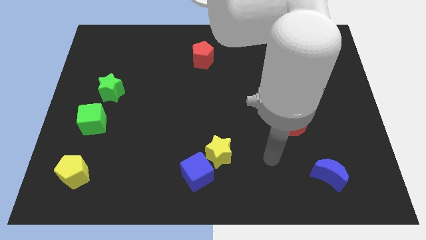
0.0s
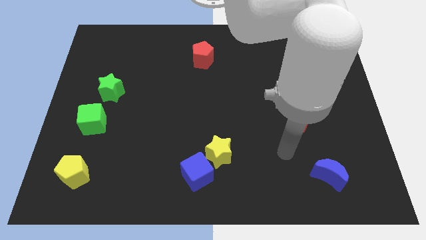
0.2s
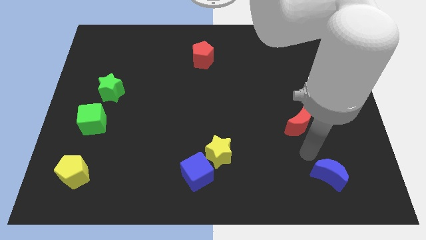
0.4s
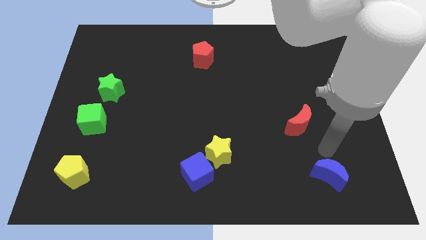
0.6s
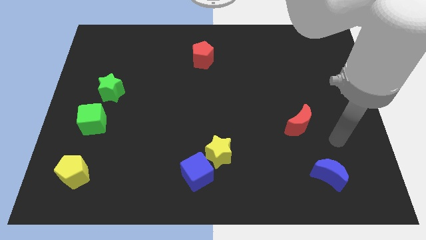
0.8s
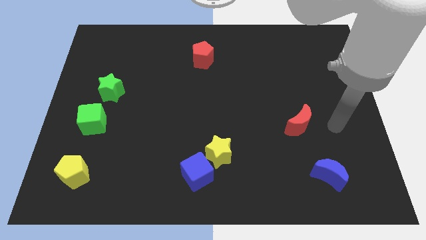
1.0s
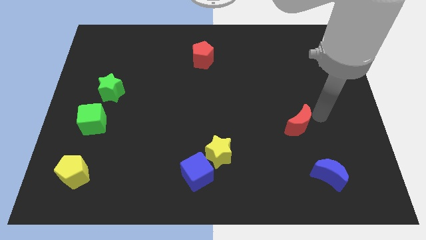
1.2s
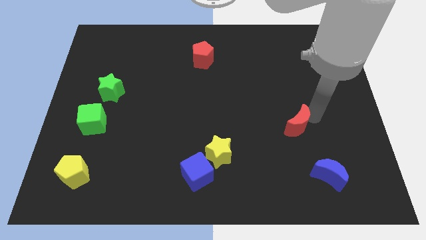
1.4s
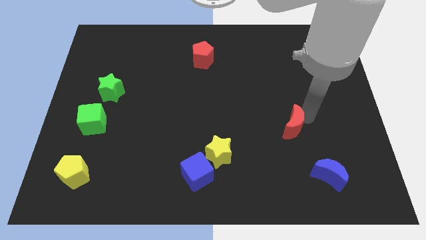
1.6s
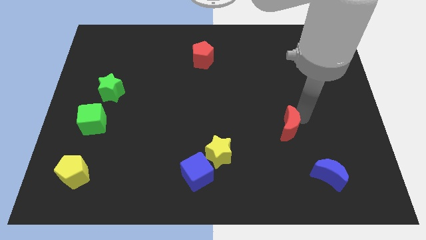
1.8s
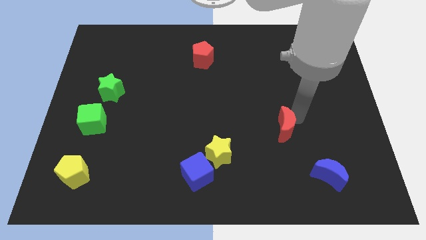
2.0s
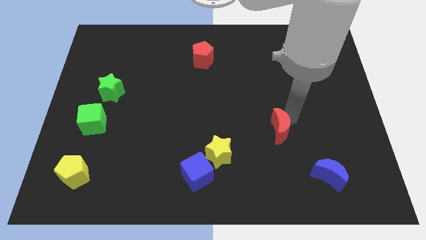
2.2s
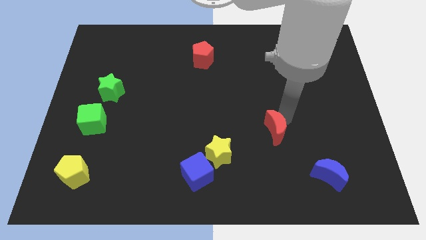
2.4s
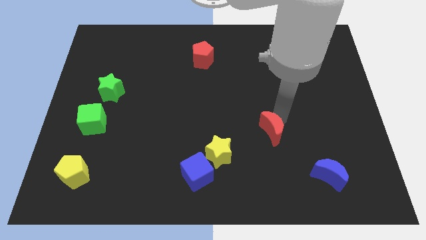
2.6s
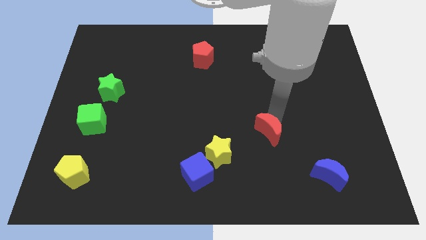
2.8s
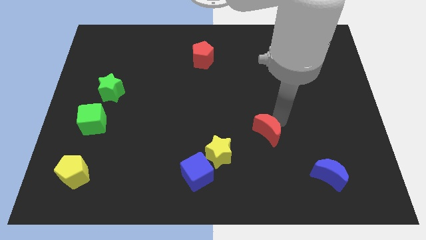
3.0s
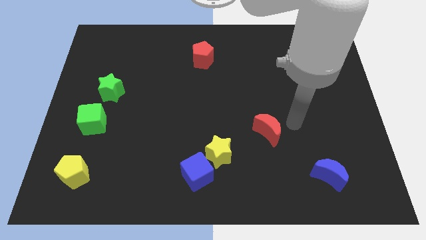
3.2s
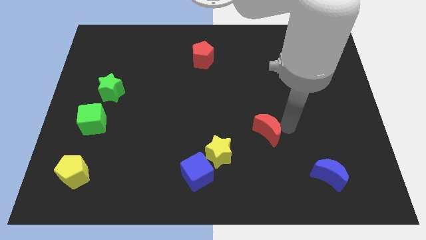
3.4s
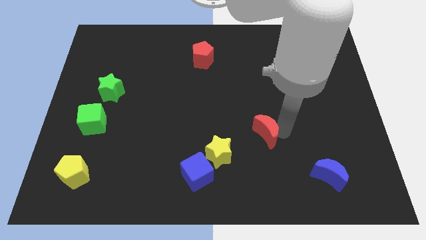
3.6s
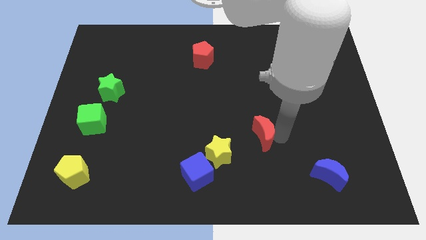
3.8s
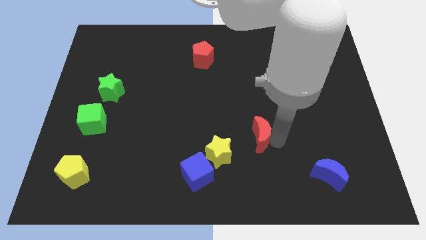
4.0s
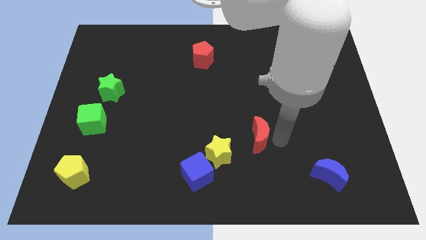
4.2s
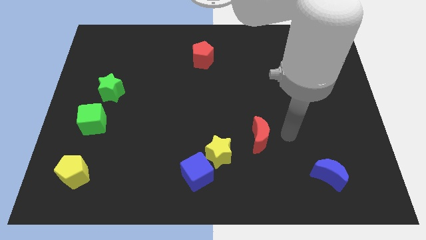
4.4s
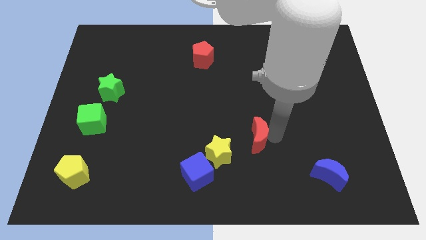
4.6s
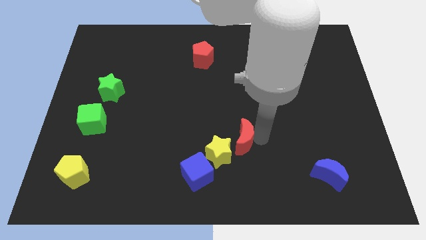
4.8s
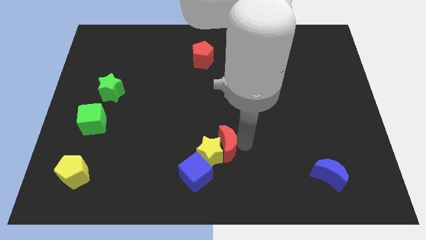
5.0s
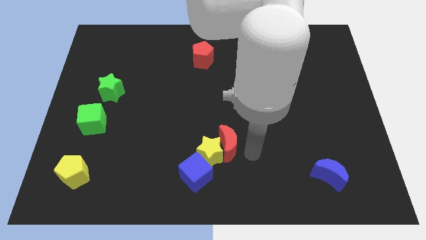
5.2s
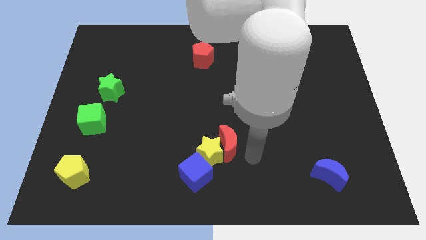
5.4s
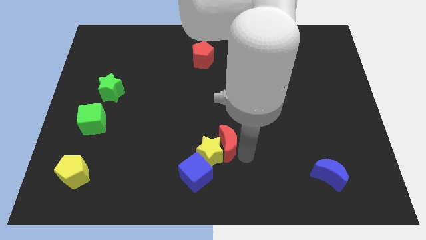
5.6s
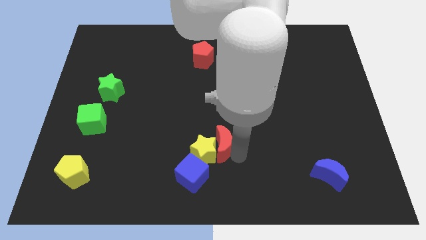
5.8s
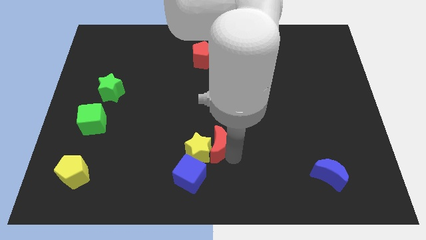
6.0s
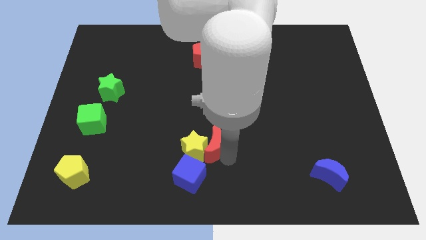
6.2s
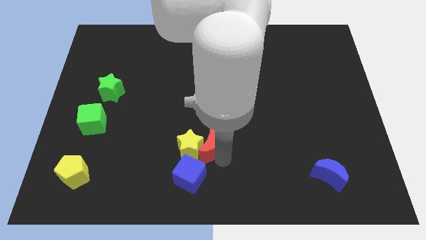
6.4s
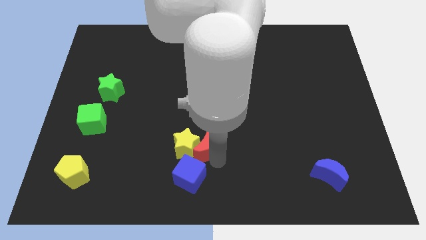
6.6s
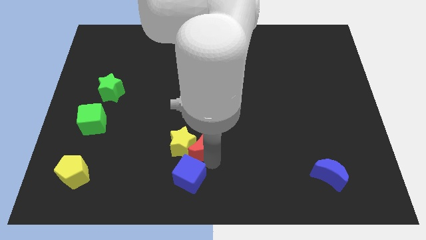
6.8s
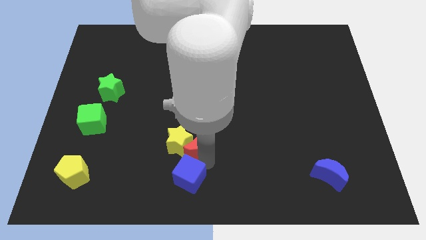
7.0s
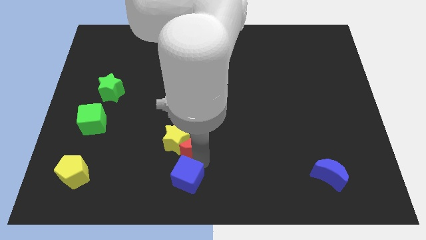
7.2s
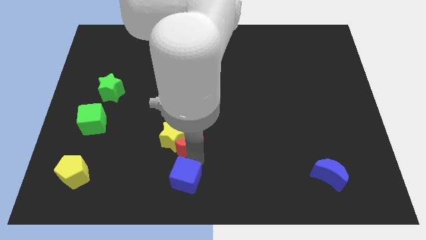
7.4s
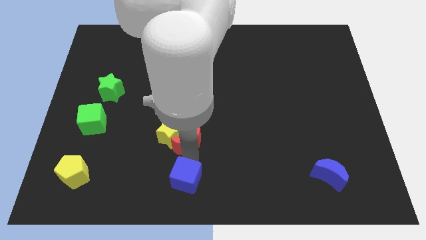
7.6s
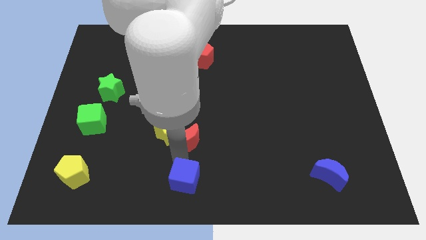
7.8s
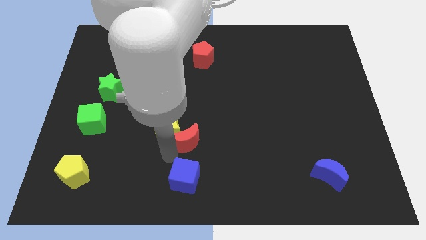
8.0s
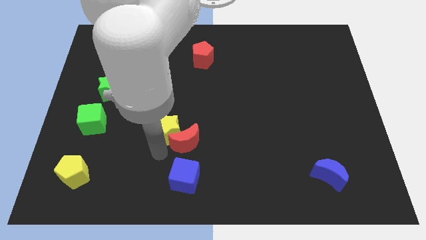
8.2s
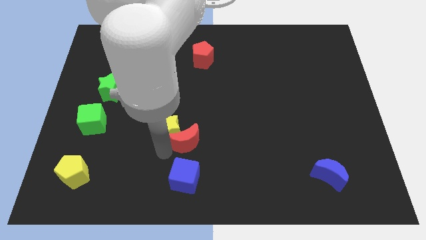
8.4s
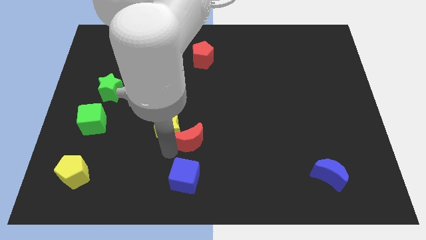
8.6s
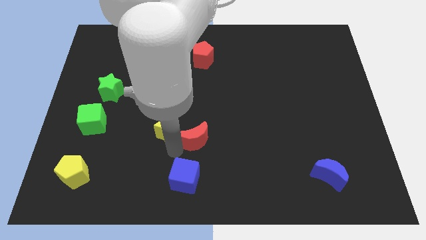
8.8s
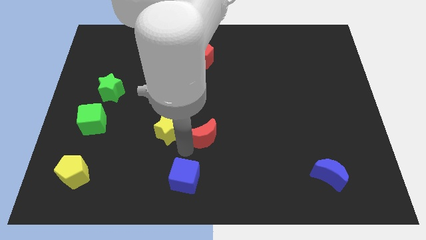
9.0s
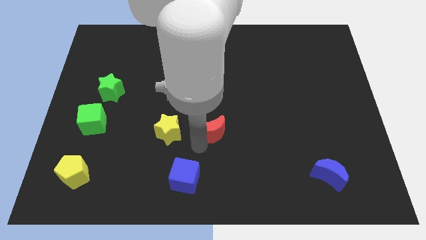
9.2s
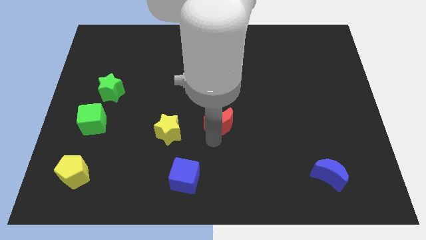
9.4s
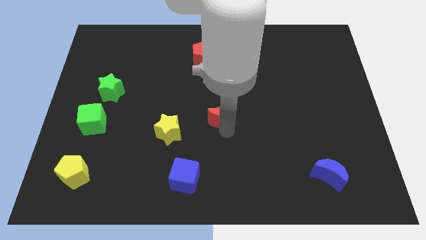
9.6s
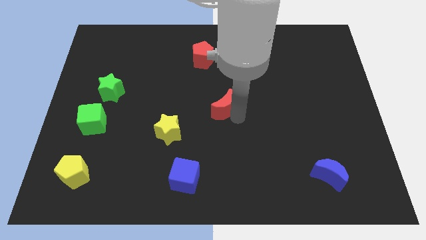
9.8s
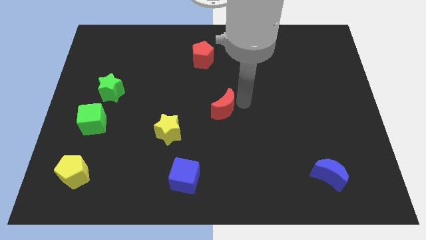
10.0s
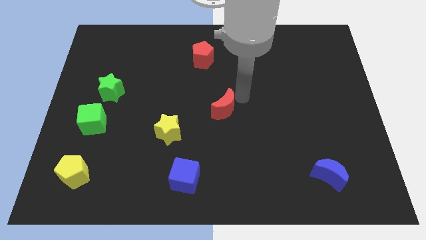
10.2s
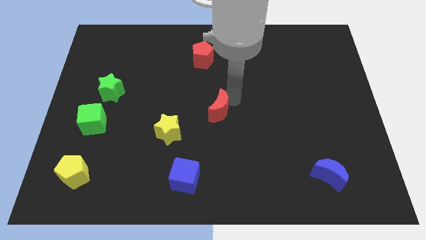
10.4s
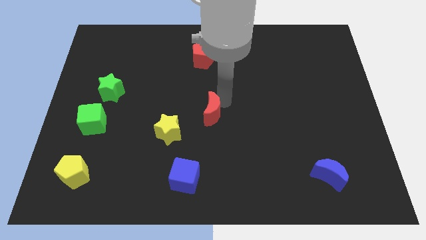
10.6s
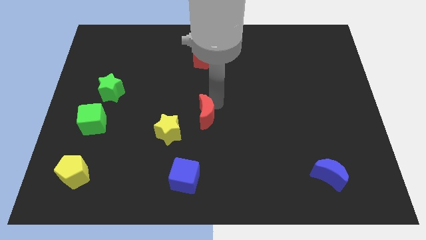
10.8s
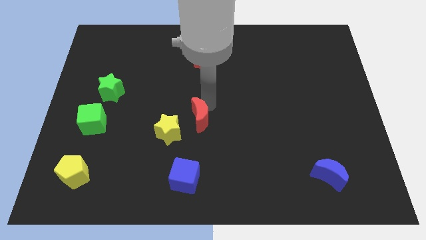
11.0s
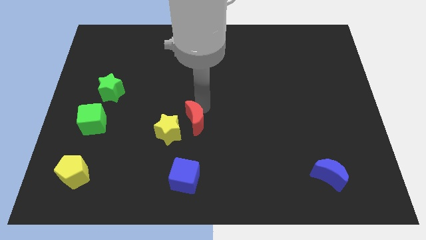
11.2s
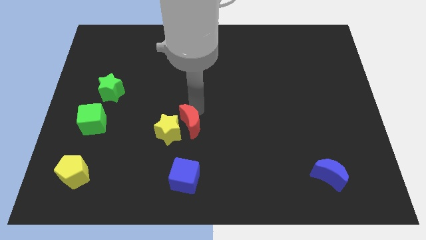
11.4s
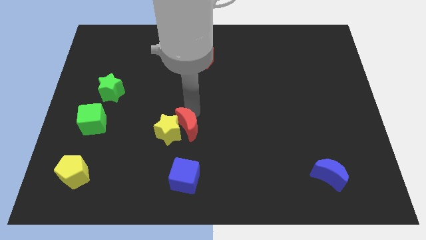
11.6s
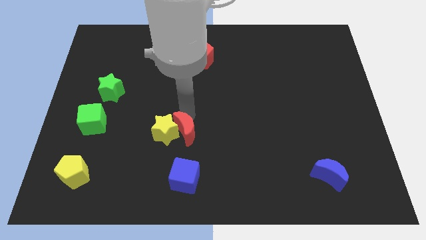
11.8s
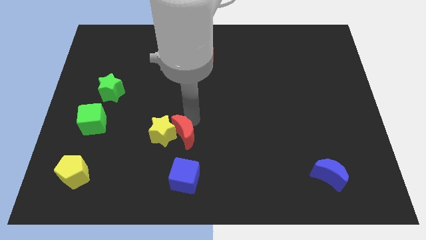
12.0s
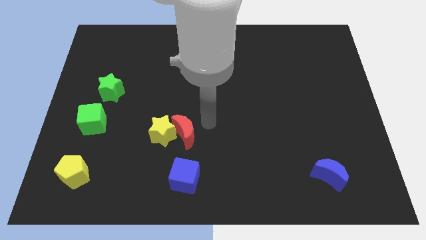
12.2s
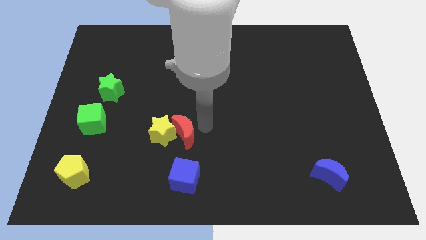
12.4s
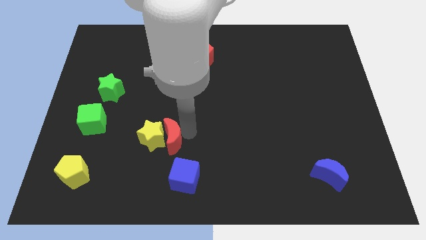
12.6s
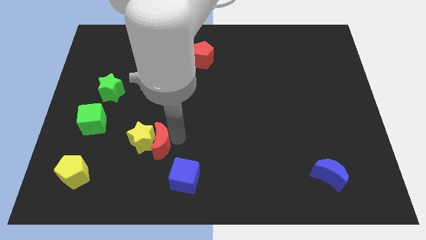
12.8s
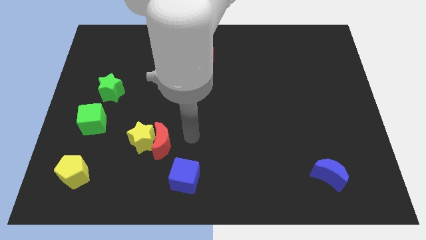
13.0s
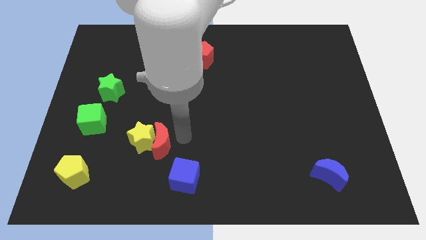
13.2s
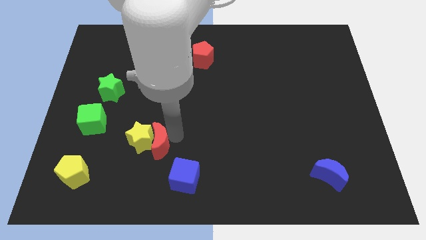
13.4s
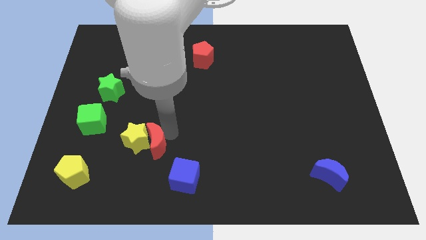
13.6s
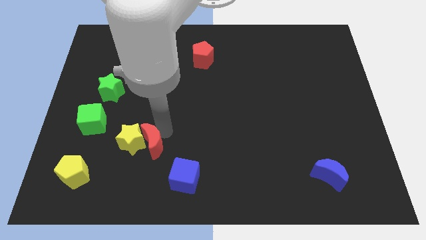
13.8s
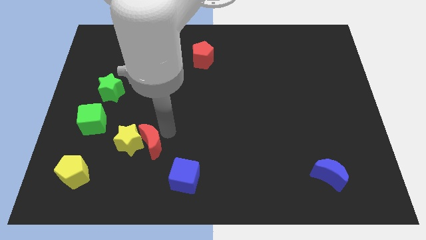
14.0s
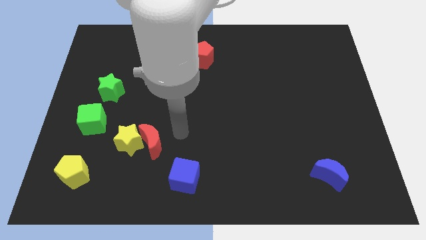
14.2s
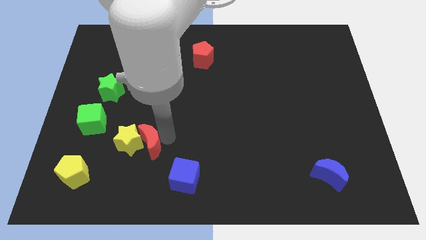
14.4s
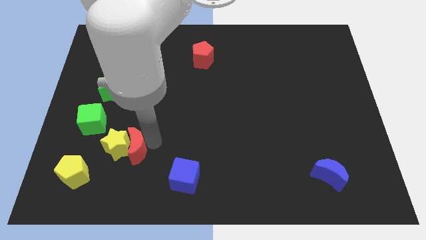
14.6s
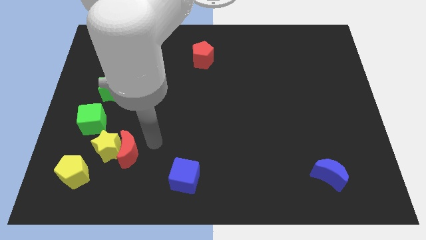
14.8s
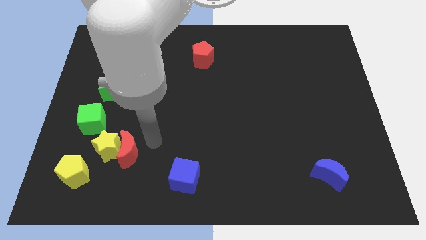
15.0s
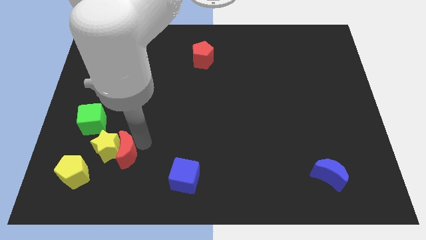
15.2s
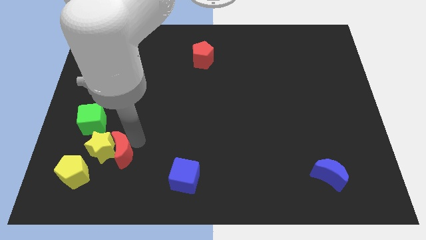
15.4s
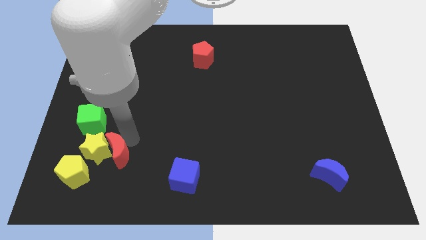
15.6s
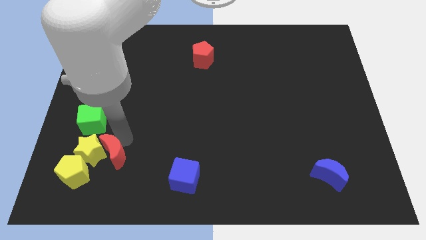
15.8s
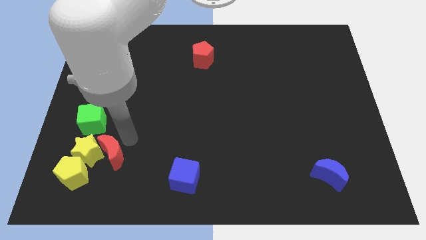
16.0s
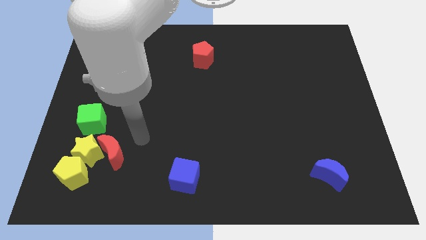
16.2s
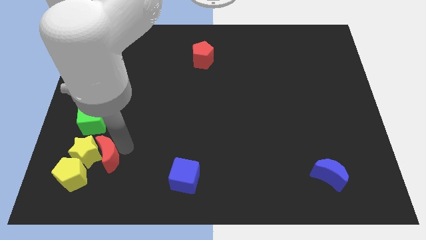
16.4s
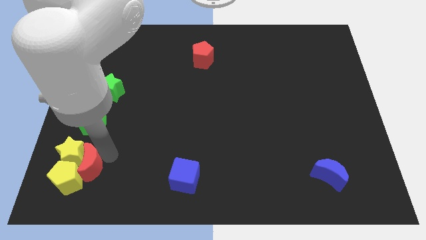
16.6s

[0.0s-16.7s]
move the red moon towards the yellow pentagon
